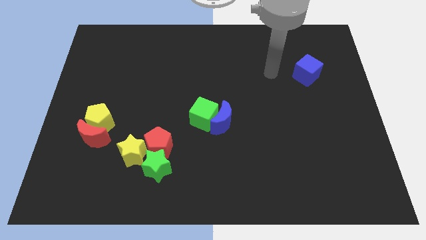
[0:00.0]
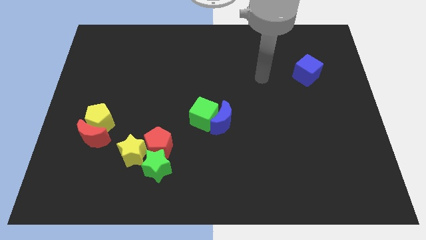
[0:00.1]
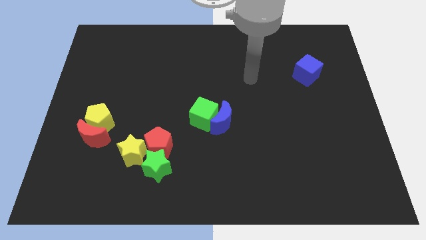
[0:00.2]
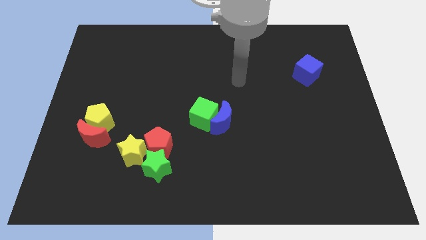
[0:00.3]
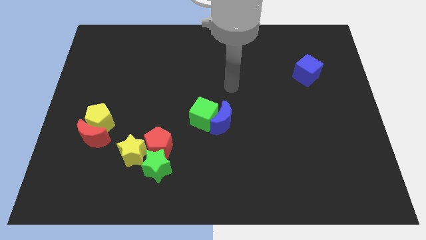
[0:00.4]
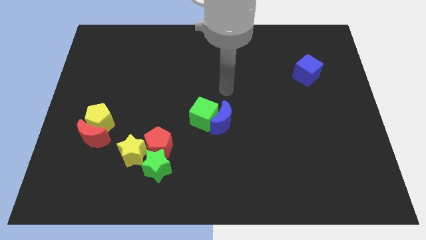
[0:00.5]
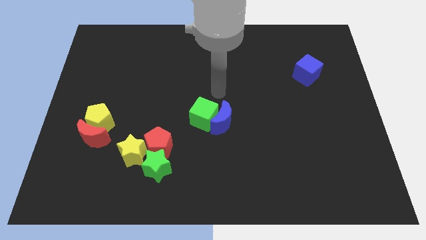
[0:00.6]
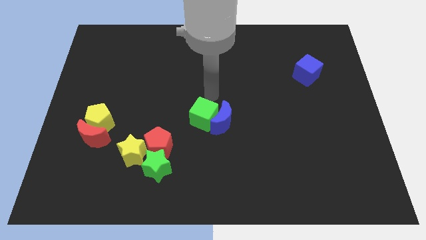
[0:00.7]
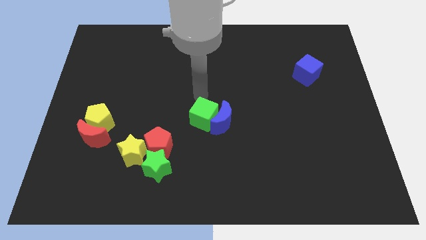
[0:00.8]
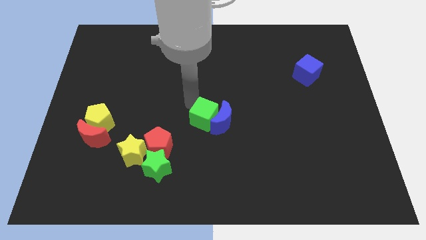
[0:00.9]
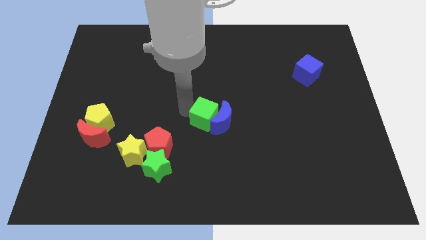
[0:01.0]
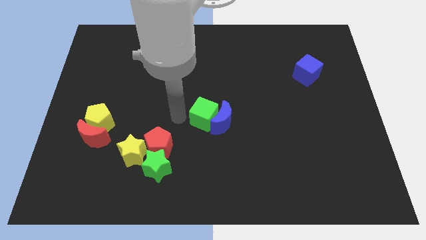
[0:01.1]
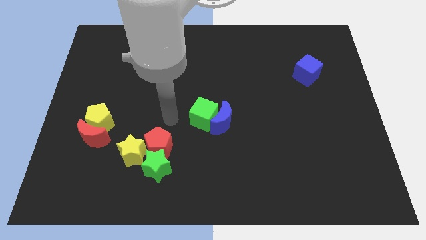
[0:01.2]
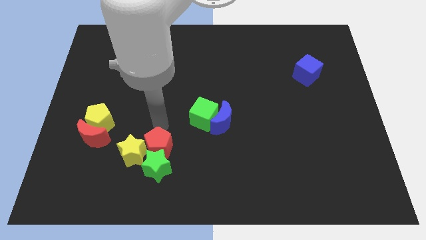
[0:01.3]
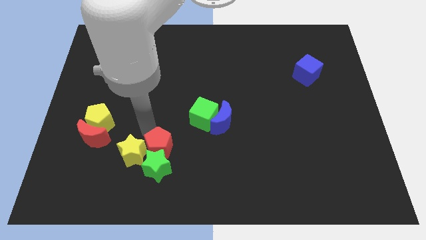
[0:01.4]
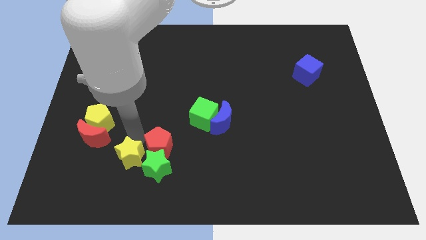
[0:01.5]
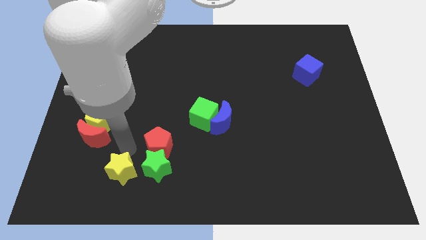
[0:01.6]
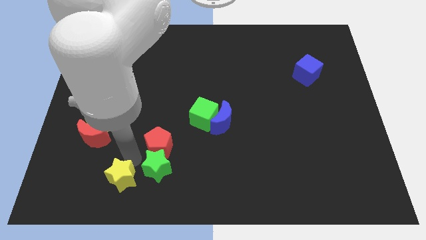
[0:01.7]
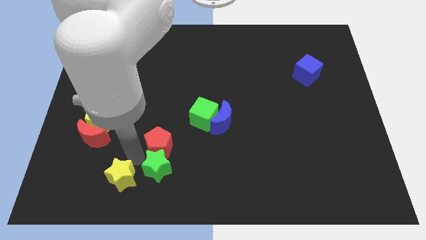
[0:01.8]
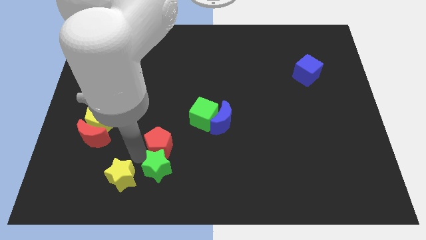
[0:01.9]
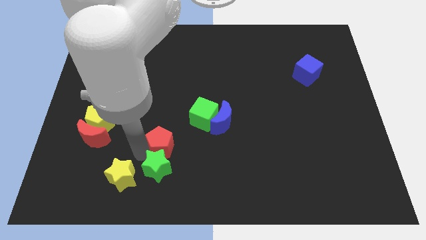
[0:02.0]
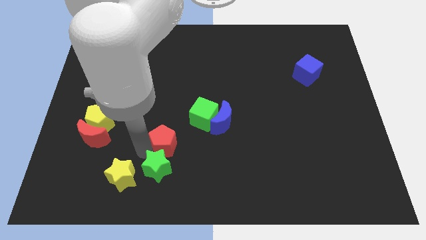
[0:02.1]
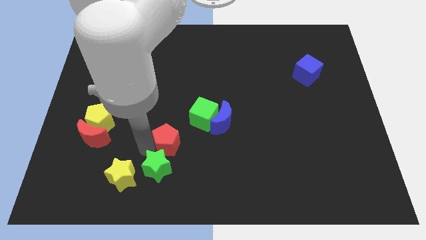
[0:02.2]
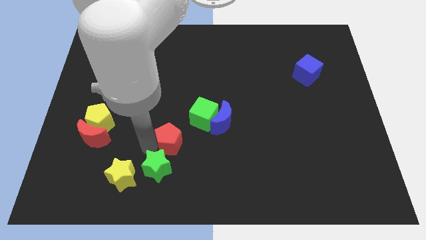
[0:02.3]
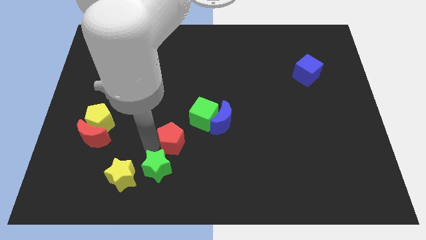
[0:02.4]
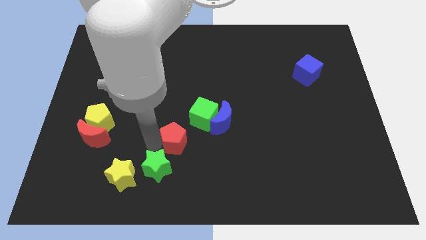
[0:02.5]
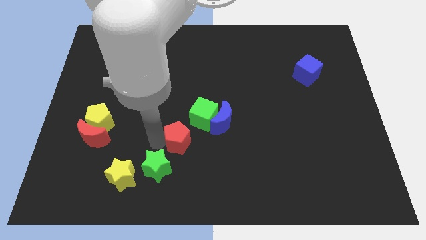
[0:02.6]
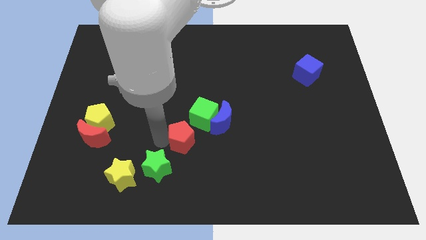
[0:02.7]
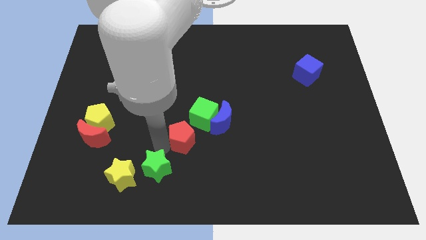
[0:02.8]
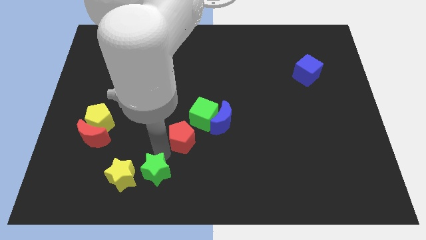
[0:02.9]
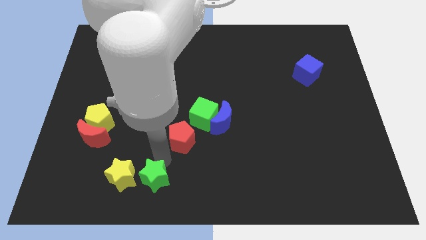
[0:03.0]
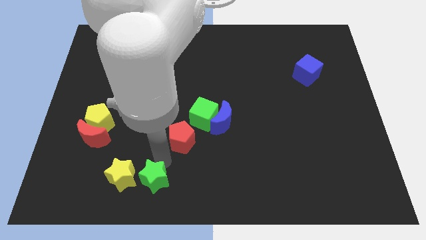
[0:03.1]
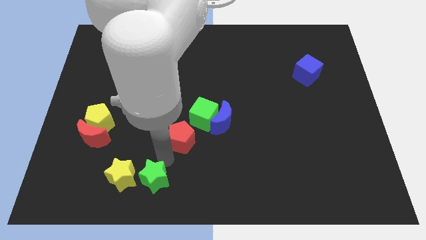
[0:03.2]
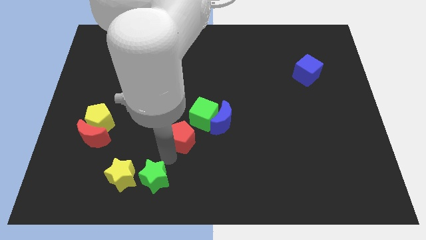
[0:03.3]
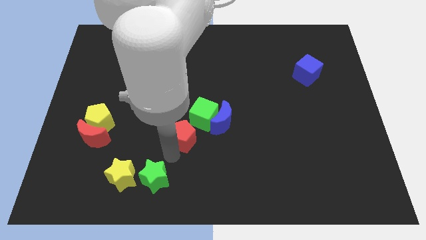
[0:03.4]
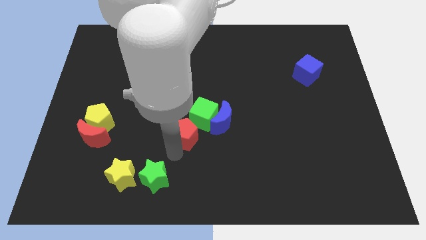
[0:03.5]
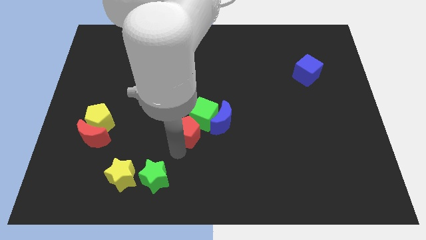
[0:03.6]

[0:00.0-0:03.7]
slide the red pentagon close to the green cube

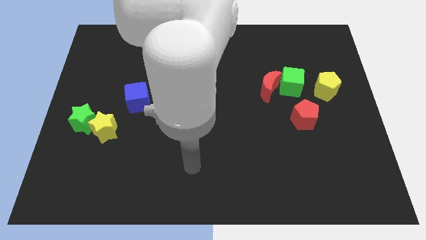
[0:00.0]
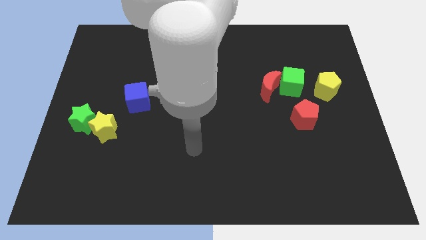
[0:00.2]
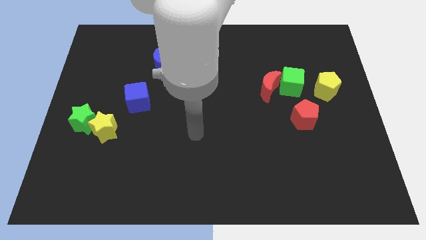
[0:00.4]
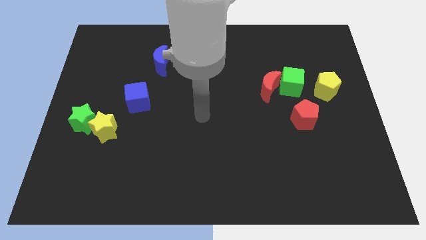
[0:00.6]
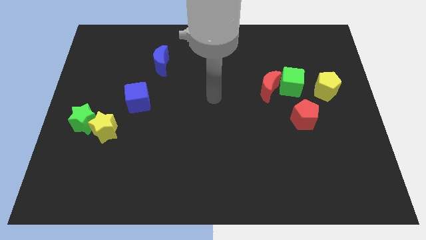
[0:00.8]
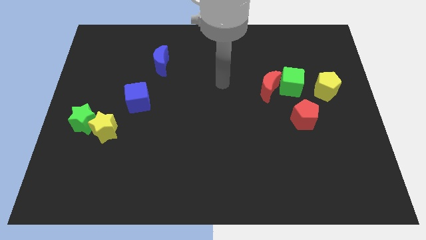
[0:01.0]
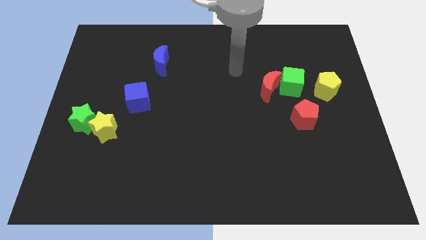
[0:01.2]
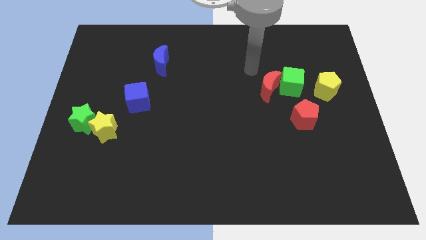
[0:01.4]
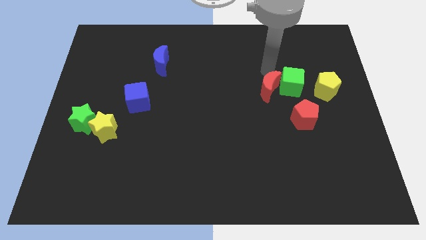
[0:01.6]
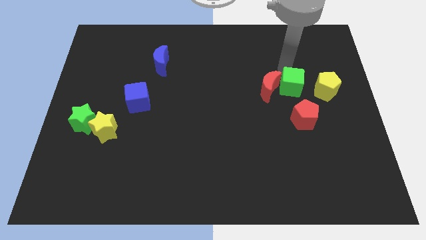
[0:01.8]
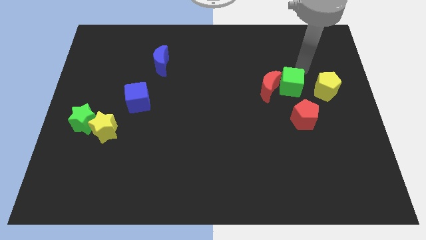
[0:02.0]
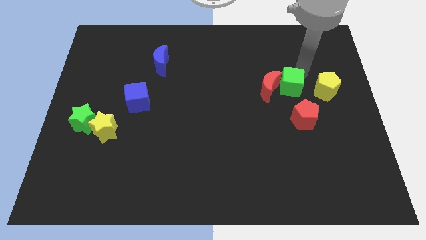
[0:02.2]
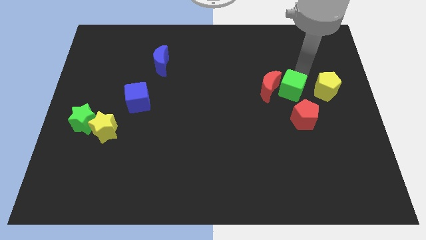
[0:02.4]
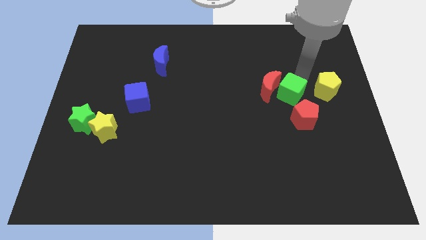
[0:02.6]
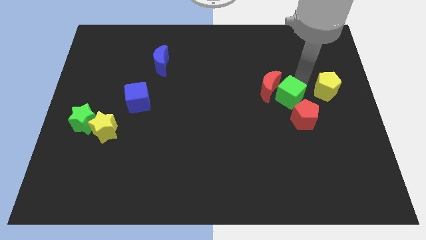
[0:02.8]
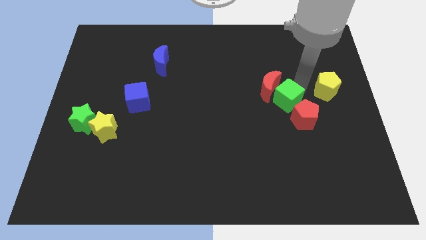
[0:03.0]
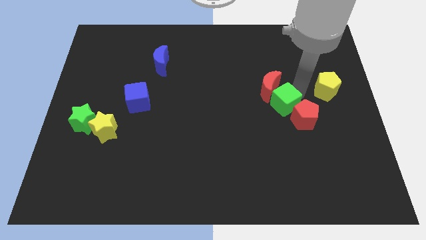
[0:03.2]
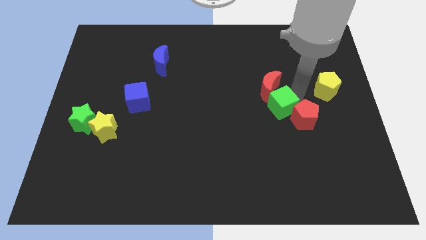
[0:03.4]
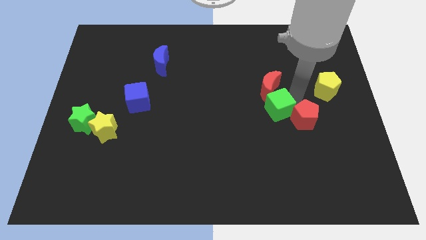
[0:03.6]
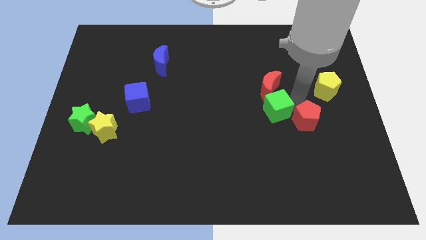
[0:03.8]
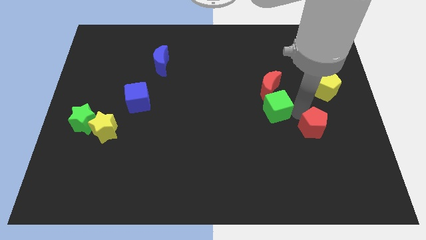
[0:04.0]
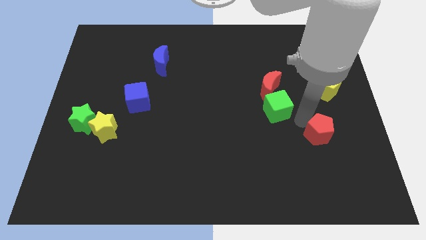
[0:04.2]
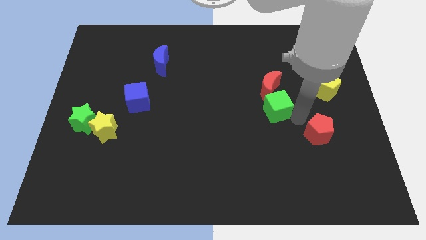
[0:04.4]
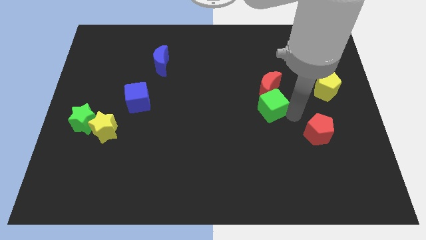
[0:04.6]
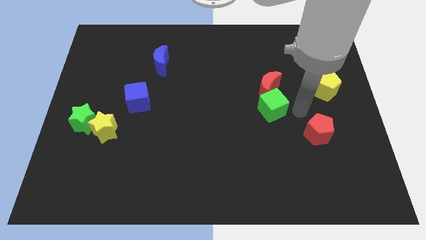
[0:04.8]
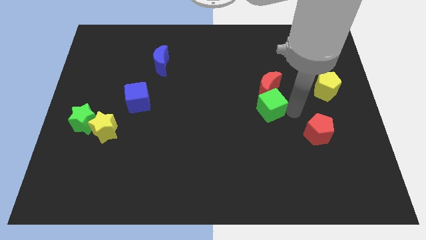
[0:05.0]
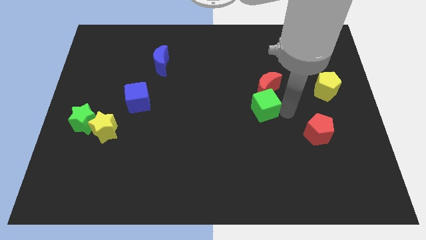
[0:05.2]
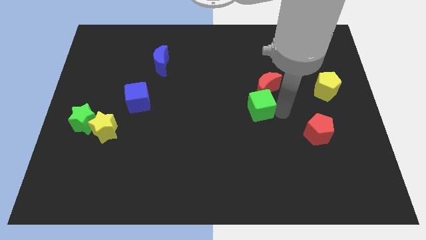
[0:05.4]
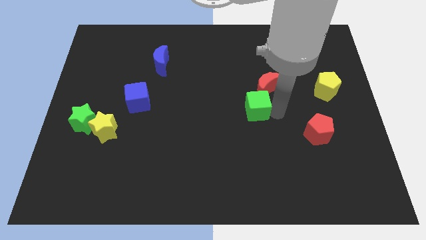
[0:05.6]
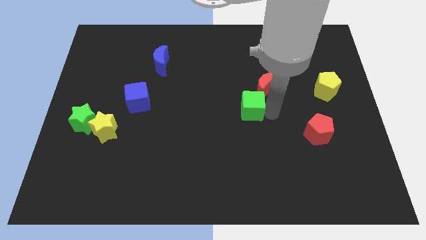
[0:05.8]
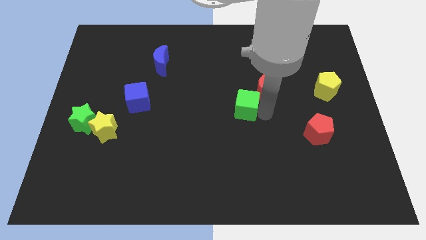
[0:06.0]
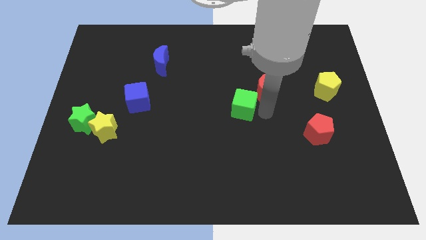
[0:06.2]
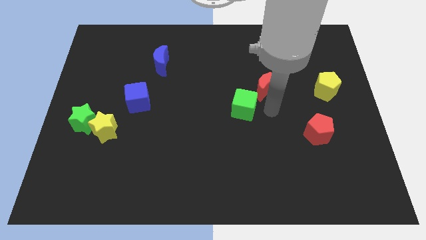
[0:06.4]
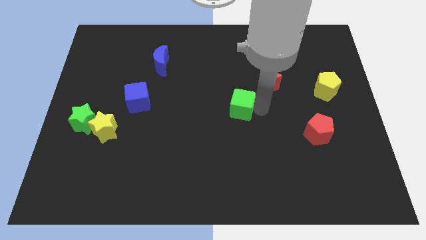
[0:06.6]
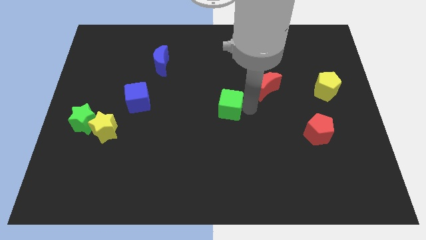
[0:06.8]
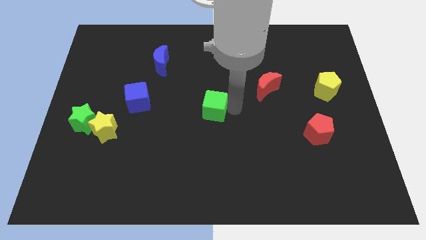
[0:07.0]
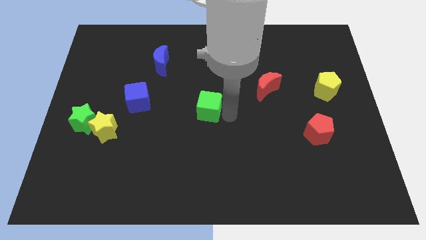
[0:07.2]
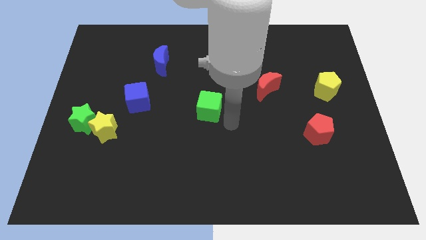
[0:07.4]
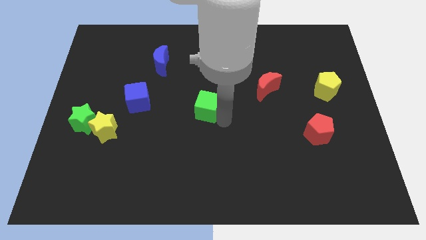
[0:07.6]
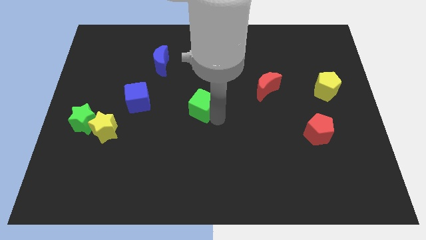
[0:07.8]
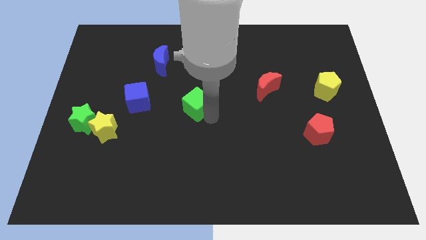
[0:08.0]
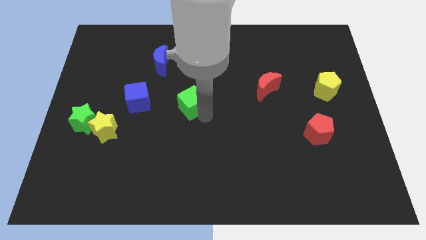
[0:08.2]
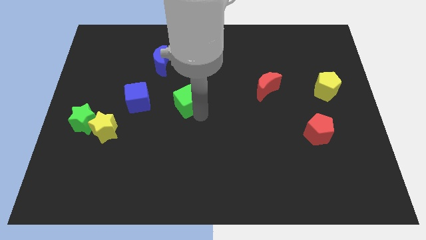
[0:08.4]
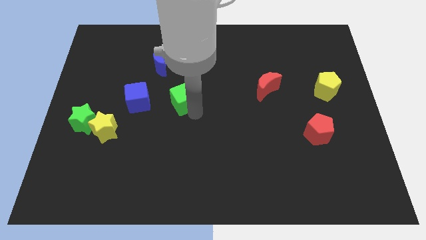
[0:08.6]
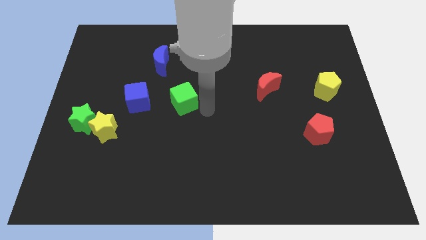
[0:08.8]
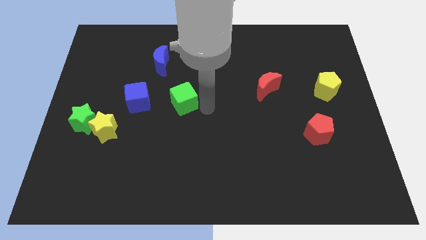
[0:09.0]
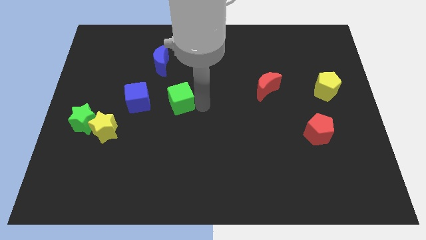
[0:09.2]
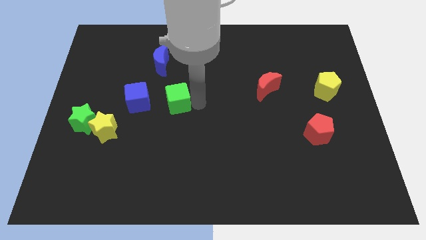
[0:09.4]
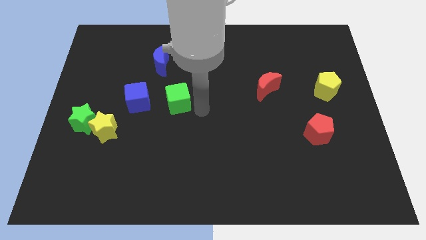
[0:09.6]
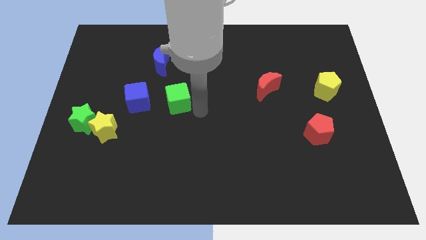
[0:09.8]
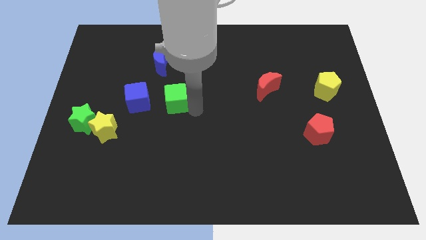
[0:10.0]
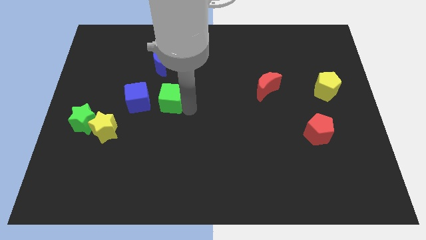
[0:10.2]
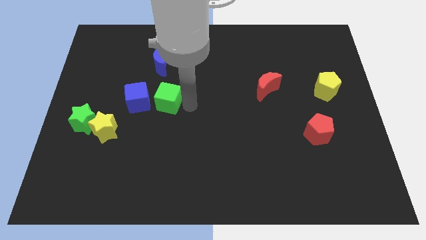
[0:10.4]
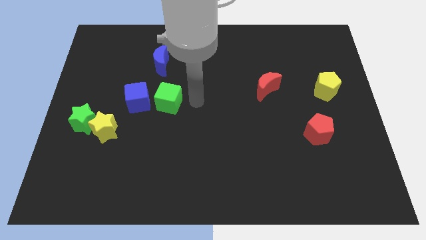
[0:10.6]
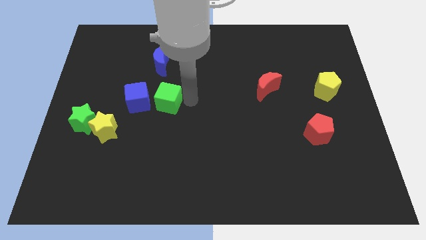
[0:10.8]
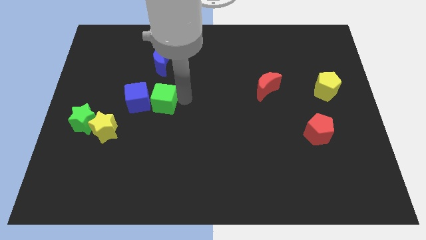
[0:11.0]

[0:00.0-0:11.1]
put the green cube towards the blue cube
